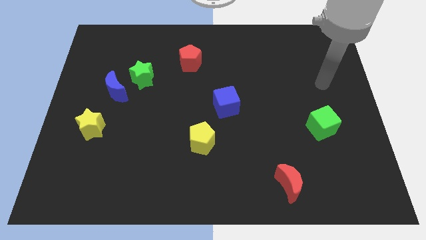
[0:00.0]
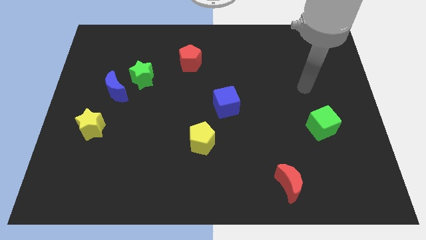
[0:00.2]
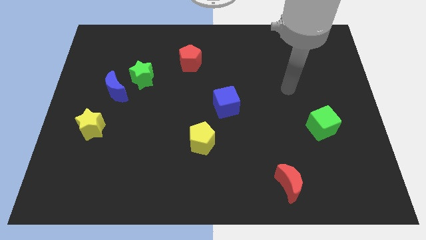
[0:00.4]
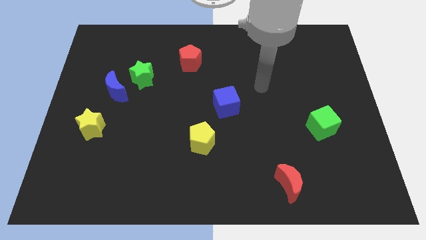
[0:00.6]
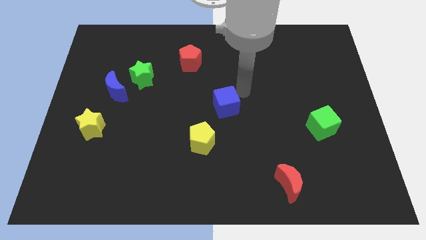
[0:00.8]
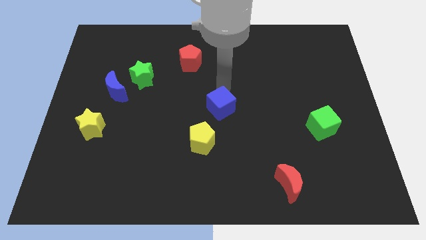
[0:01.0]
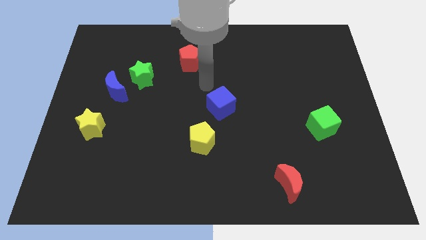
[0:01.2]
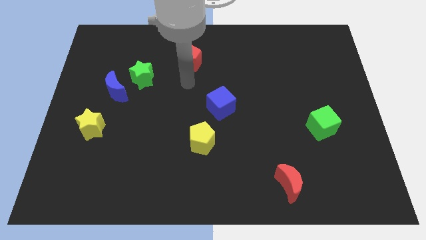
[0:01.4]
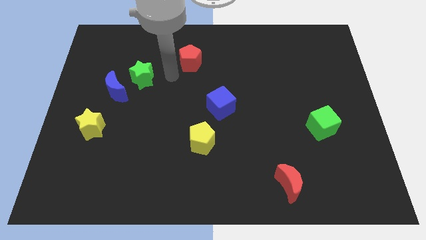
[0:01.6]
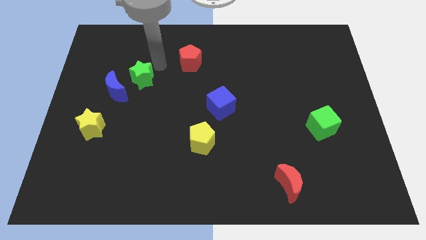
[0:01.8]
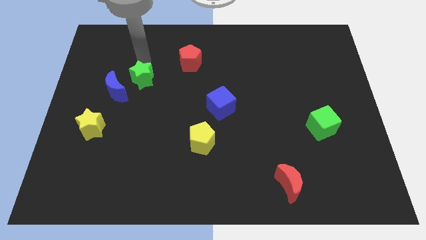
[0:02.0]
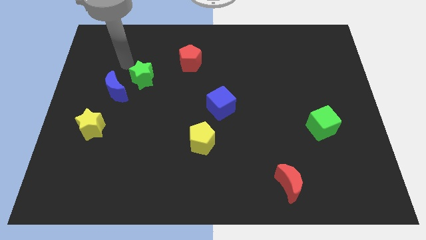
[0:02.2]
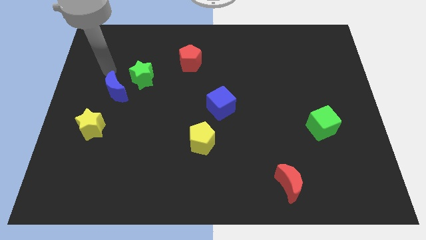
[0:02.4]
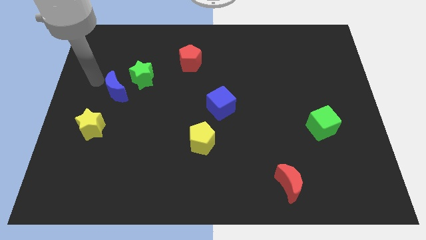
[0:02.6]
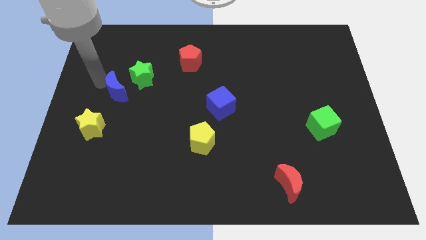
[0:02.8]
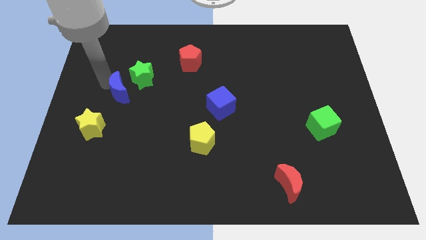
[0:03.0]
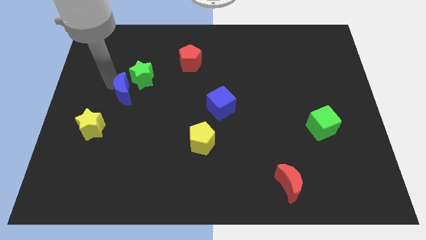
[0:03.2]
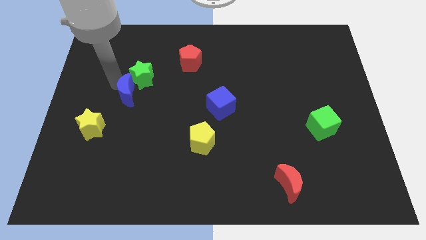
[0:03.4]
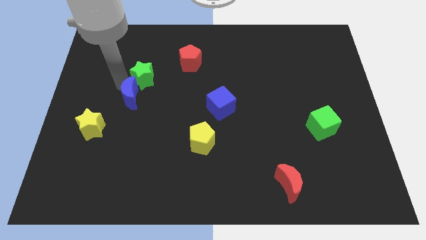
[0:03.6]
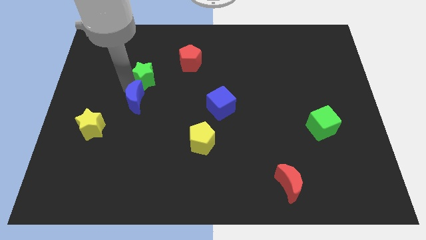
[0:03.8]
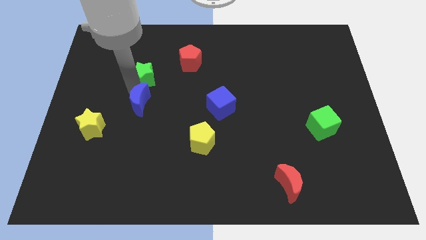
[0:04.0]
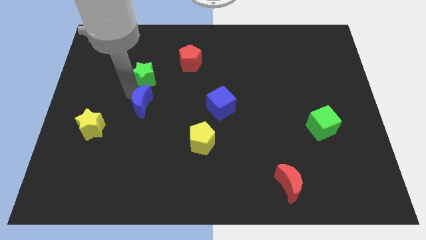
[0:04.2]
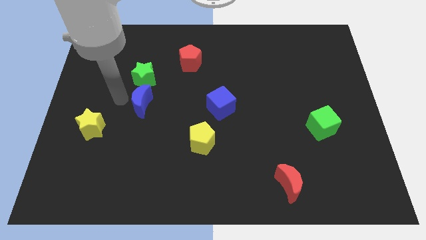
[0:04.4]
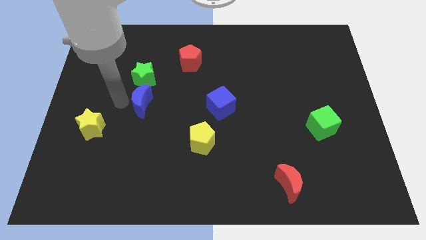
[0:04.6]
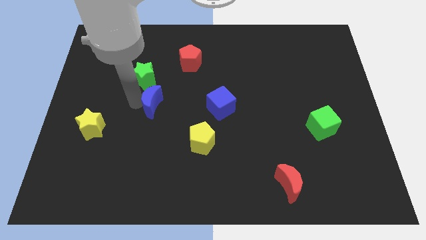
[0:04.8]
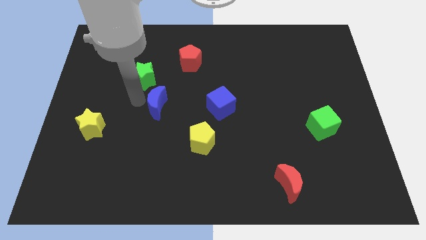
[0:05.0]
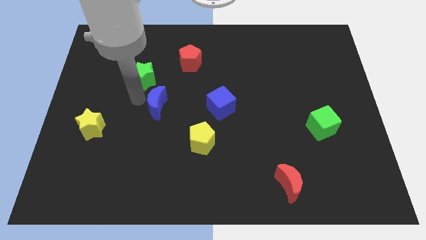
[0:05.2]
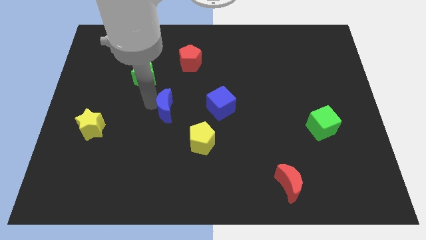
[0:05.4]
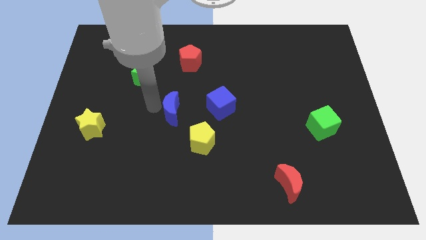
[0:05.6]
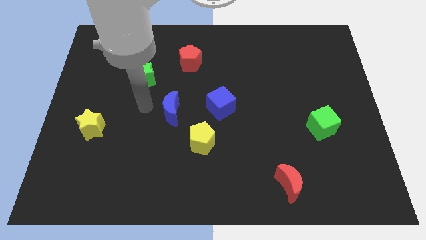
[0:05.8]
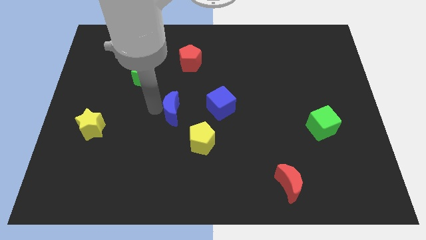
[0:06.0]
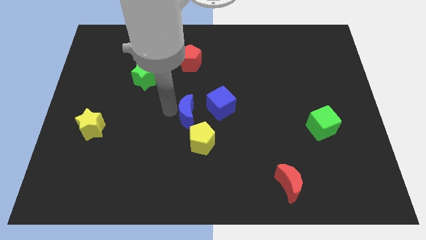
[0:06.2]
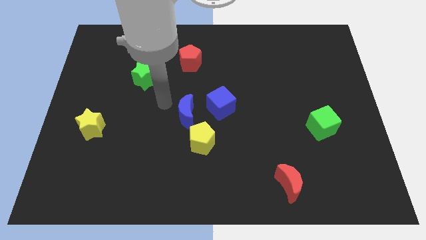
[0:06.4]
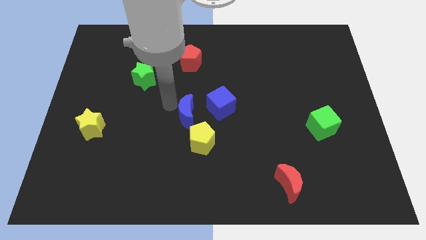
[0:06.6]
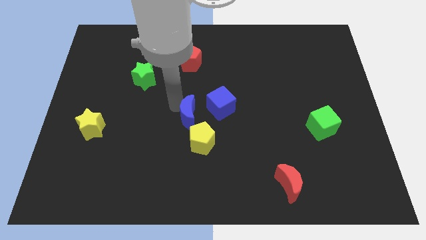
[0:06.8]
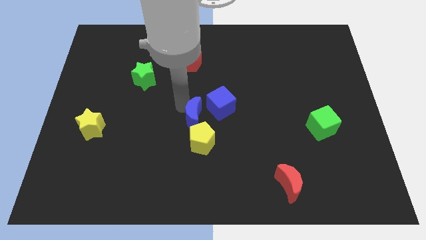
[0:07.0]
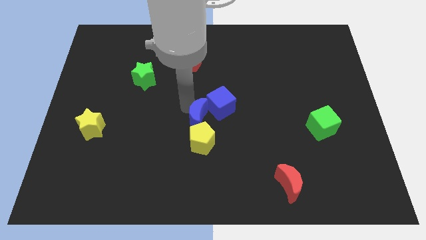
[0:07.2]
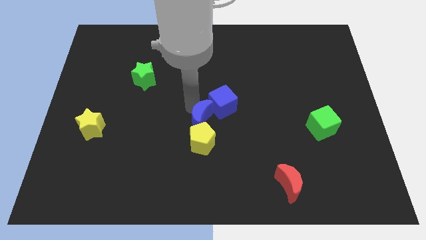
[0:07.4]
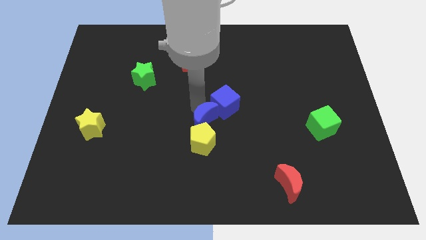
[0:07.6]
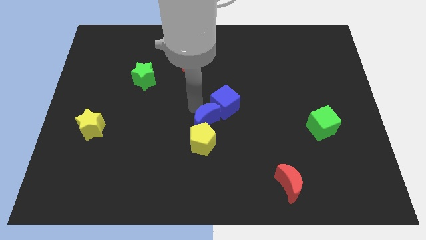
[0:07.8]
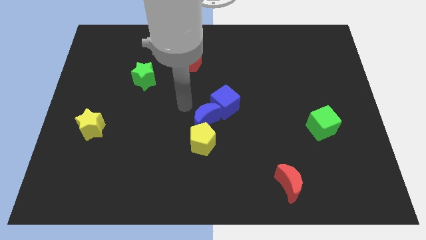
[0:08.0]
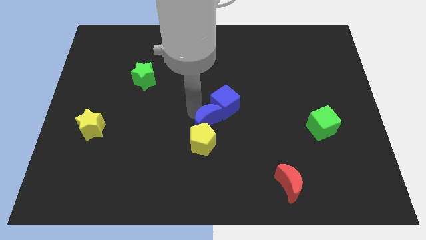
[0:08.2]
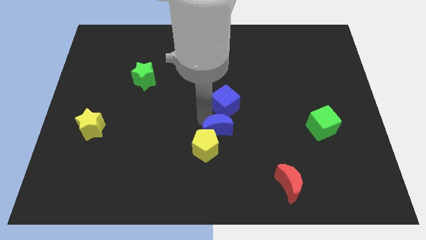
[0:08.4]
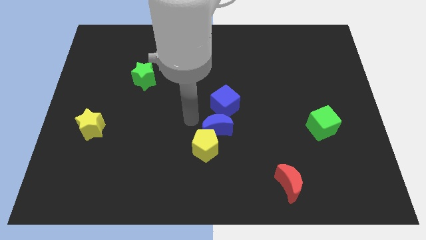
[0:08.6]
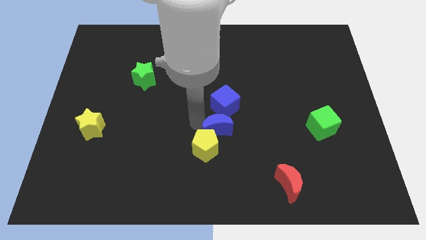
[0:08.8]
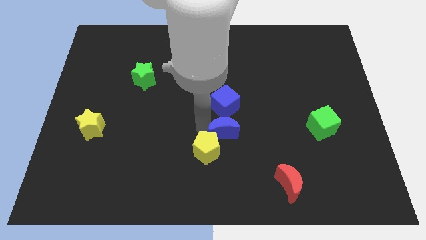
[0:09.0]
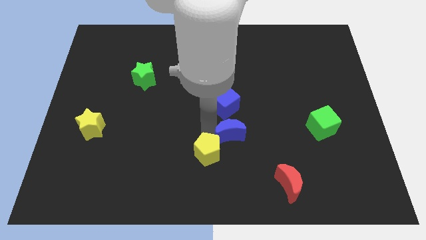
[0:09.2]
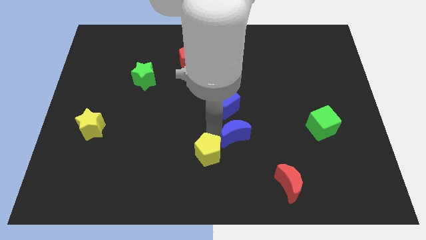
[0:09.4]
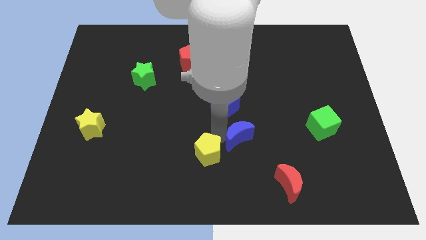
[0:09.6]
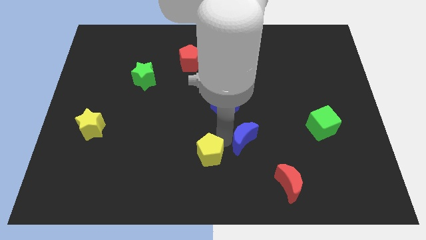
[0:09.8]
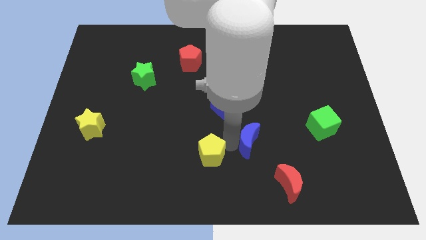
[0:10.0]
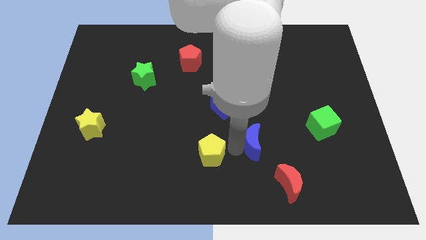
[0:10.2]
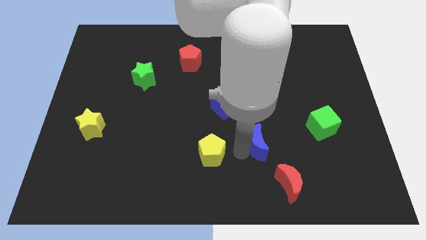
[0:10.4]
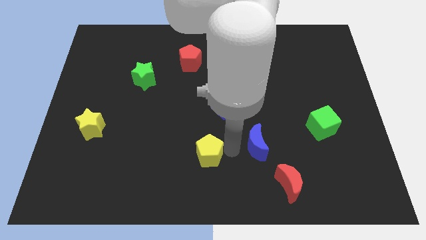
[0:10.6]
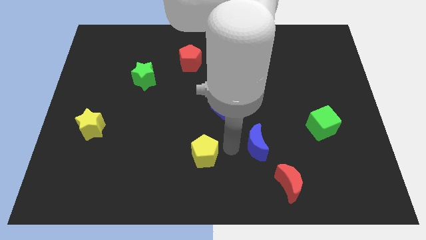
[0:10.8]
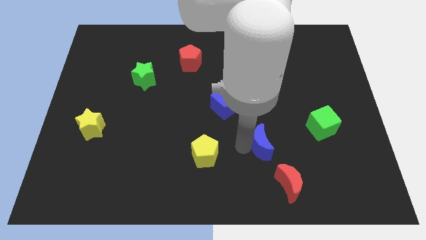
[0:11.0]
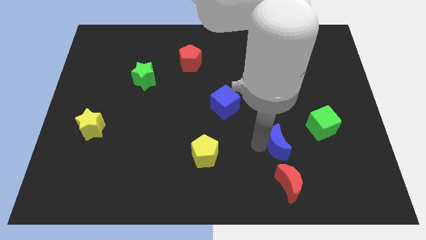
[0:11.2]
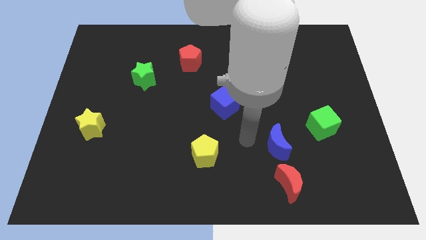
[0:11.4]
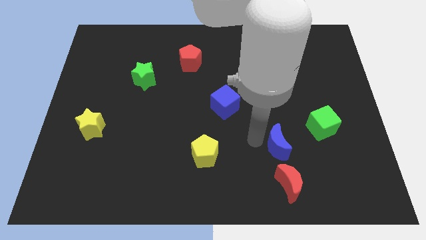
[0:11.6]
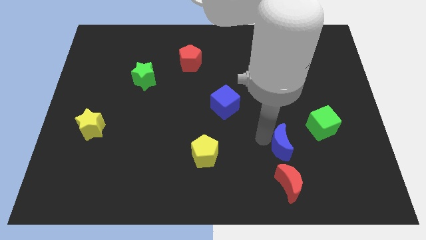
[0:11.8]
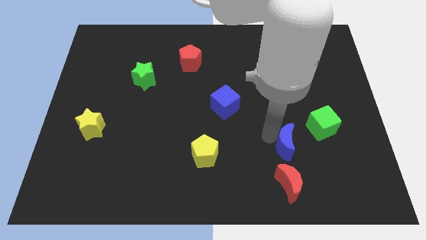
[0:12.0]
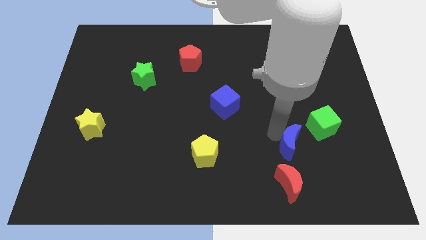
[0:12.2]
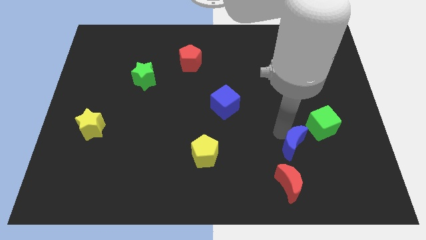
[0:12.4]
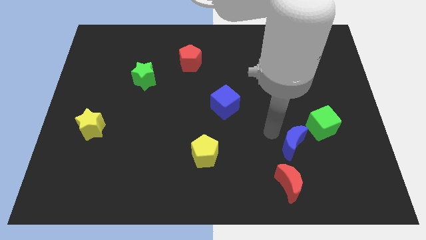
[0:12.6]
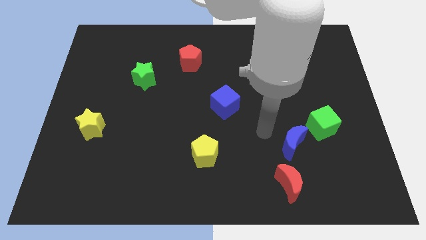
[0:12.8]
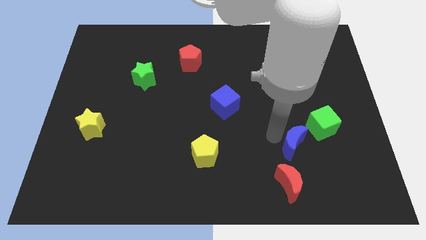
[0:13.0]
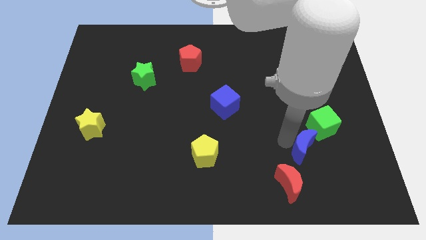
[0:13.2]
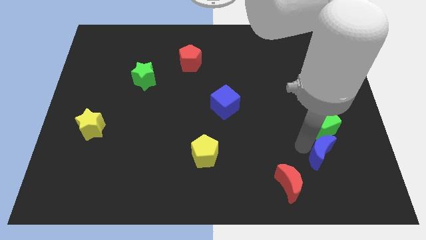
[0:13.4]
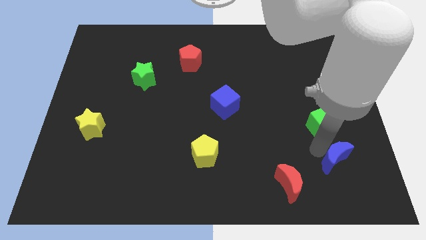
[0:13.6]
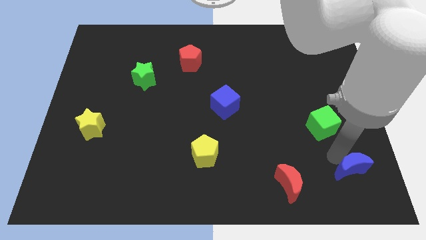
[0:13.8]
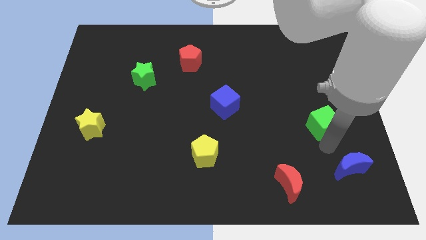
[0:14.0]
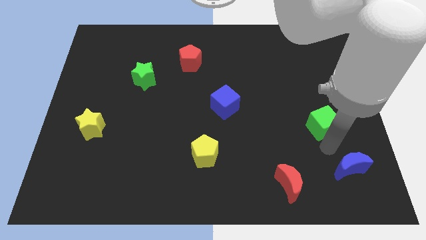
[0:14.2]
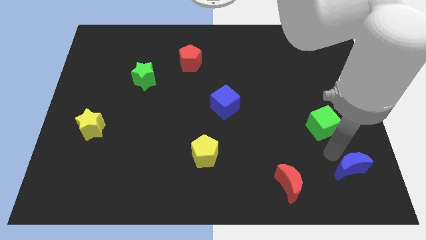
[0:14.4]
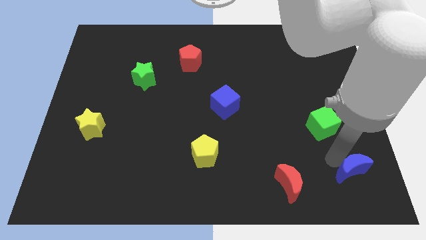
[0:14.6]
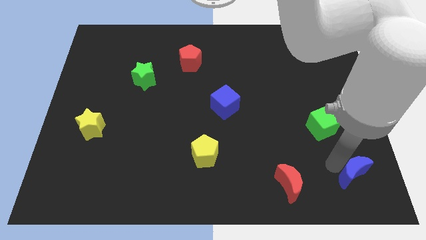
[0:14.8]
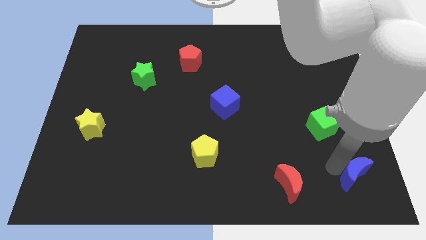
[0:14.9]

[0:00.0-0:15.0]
put the blue moon to the bottom right corner
